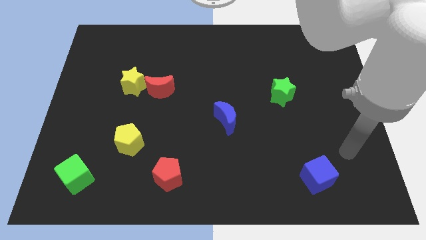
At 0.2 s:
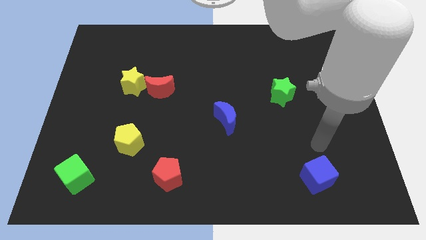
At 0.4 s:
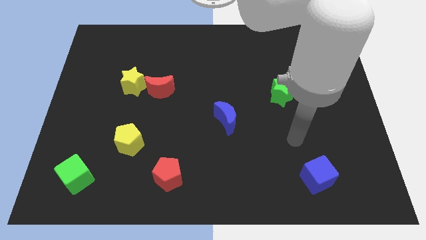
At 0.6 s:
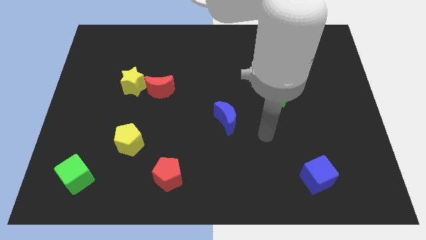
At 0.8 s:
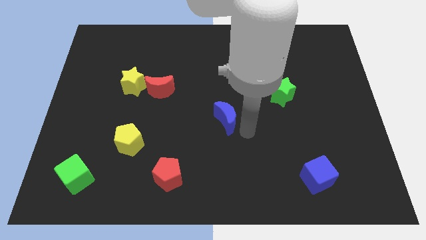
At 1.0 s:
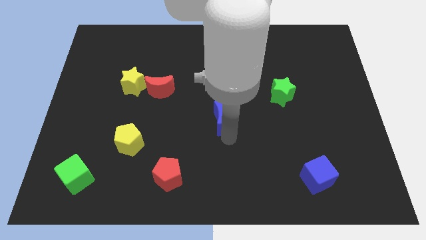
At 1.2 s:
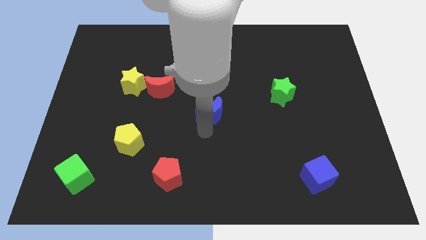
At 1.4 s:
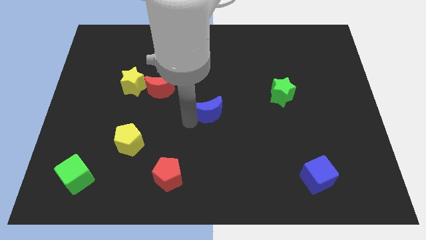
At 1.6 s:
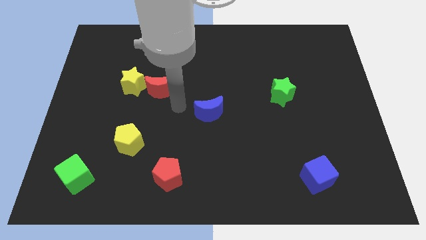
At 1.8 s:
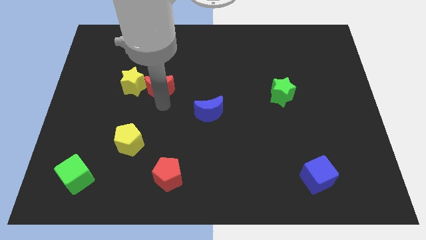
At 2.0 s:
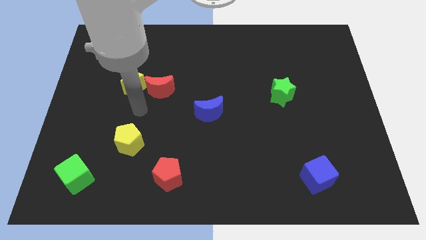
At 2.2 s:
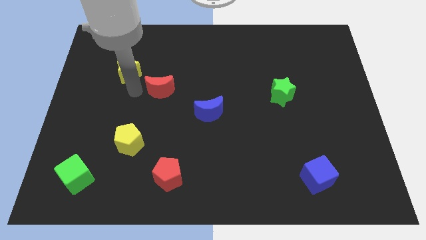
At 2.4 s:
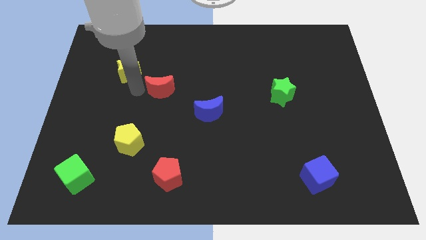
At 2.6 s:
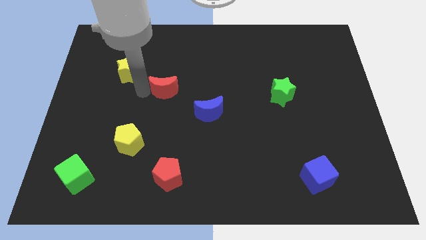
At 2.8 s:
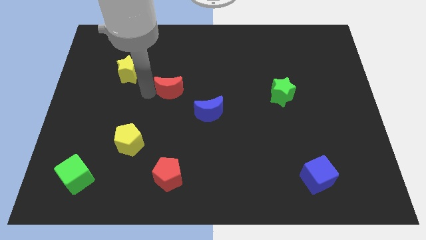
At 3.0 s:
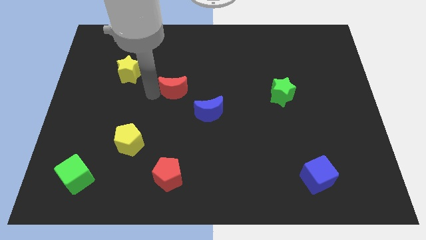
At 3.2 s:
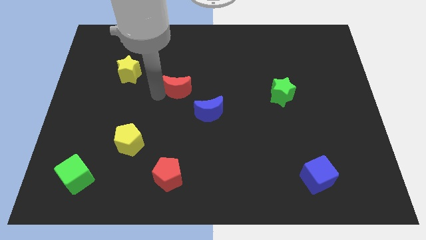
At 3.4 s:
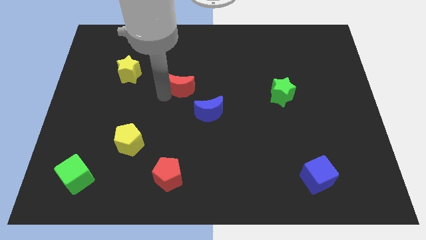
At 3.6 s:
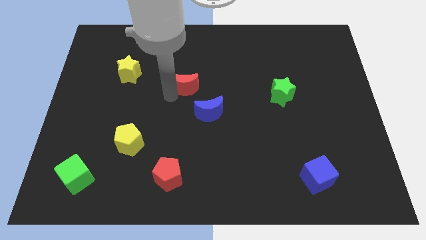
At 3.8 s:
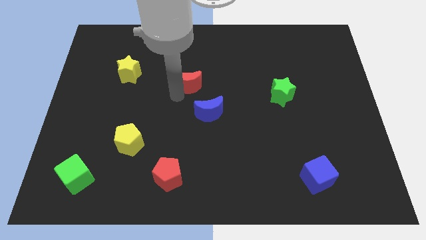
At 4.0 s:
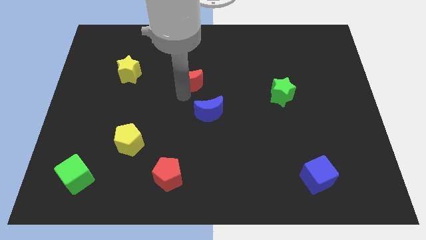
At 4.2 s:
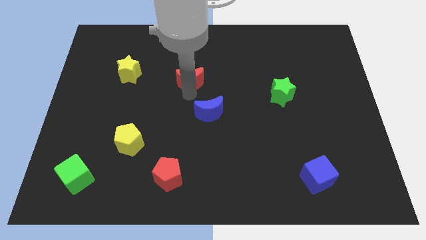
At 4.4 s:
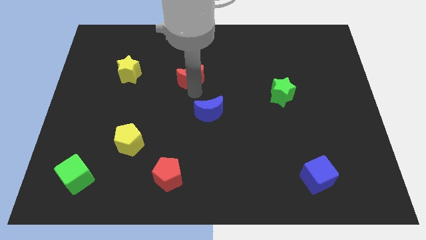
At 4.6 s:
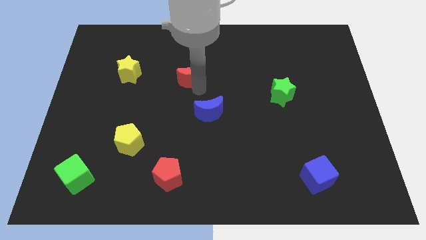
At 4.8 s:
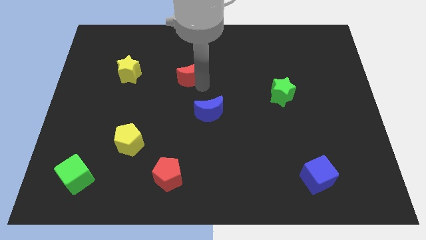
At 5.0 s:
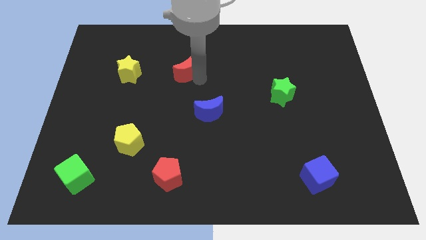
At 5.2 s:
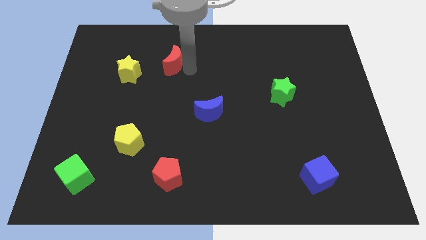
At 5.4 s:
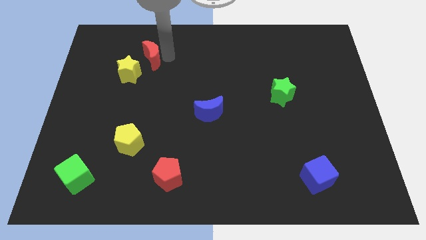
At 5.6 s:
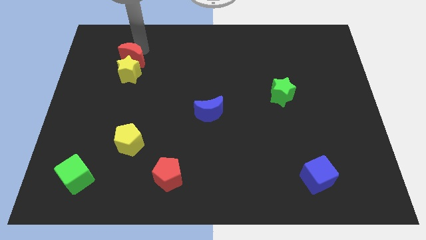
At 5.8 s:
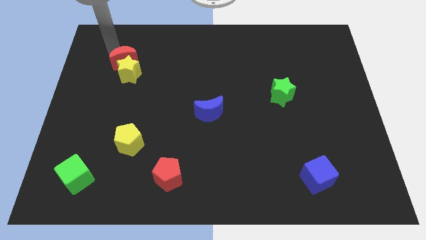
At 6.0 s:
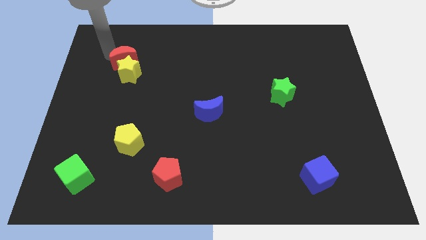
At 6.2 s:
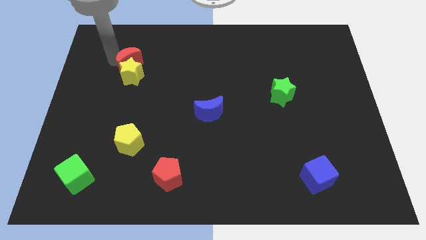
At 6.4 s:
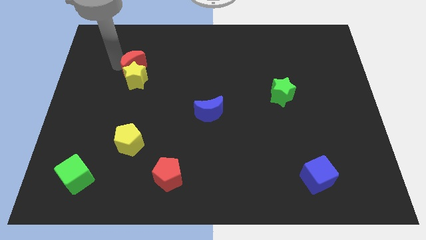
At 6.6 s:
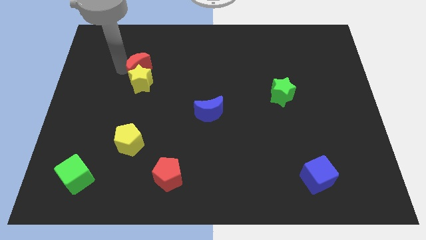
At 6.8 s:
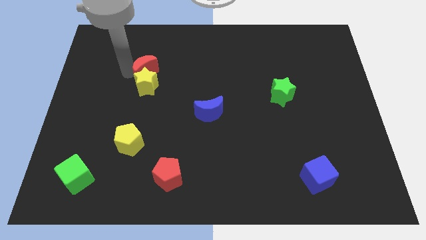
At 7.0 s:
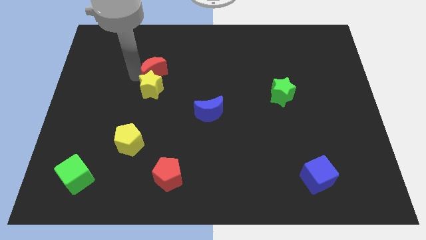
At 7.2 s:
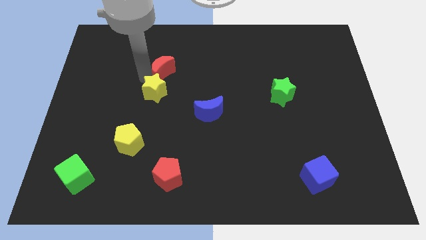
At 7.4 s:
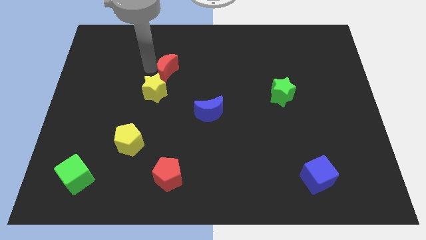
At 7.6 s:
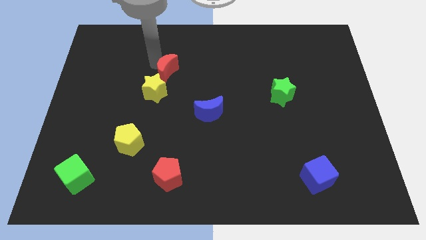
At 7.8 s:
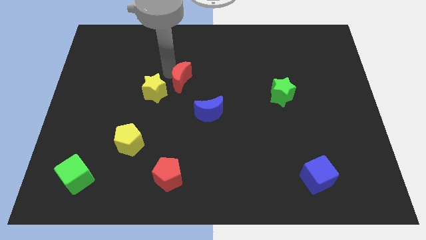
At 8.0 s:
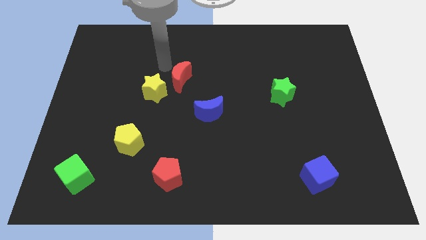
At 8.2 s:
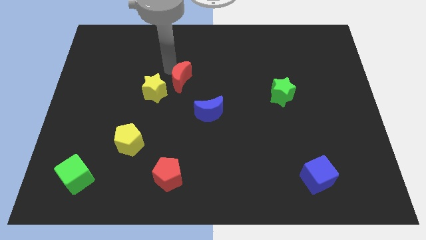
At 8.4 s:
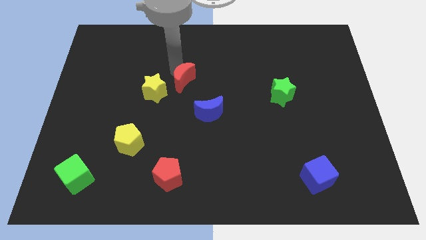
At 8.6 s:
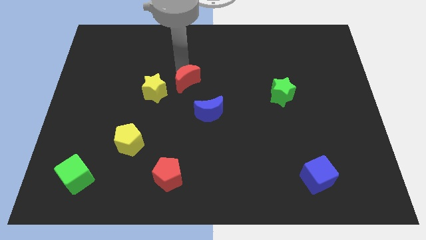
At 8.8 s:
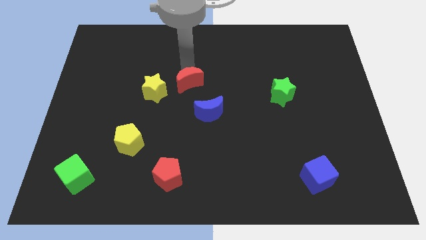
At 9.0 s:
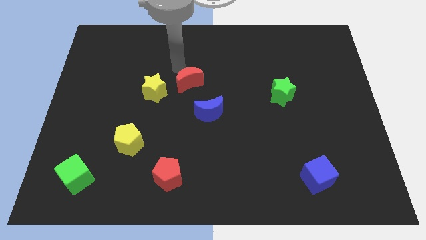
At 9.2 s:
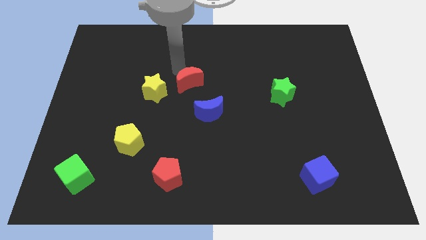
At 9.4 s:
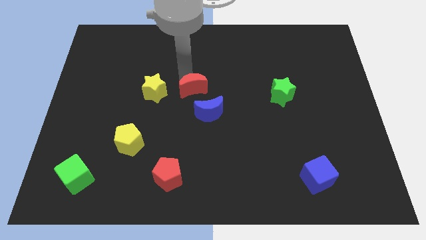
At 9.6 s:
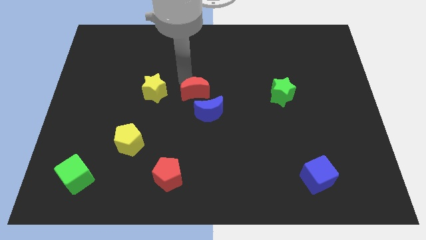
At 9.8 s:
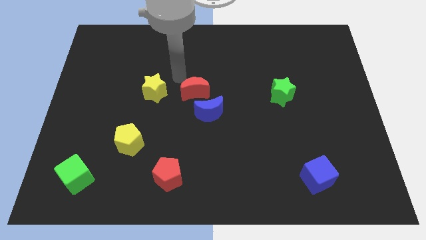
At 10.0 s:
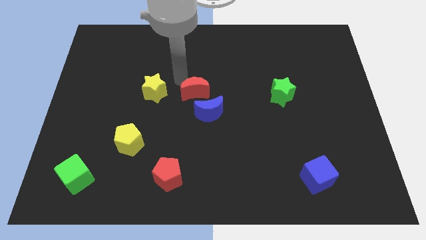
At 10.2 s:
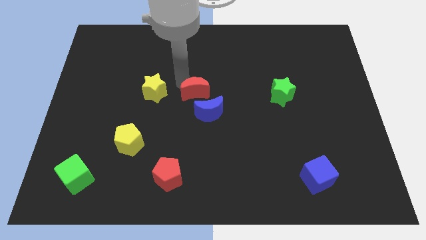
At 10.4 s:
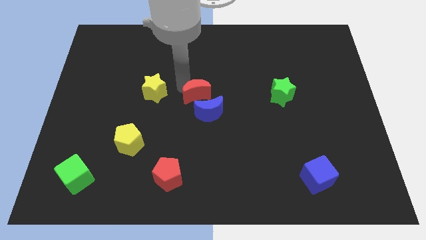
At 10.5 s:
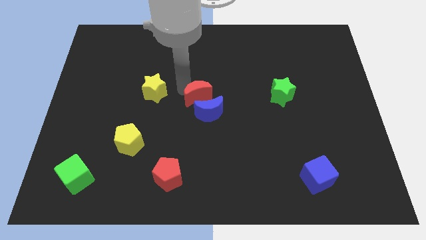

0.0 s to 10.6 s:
slide the red moon next to the blue moon

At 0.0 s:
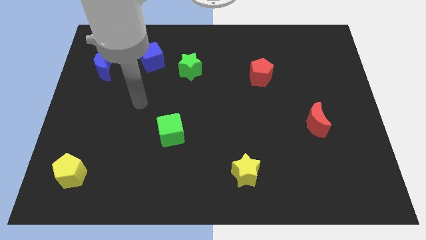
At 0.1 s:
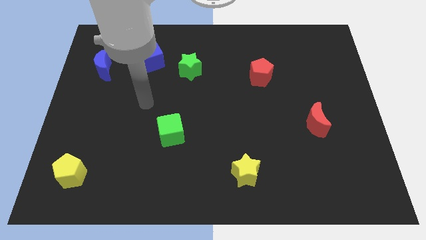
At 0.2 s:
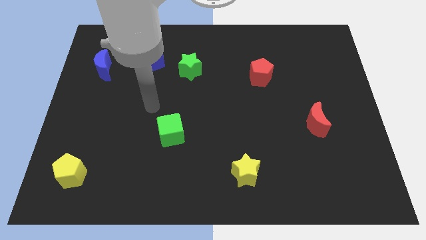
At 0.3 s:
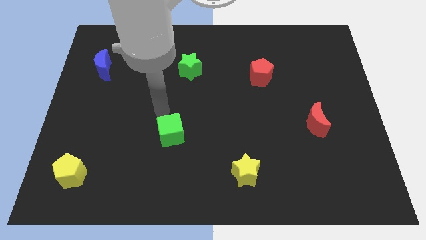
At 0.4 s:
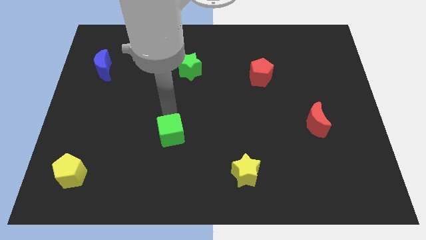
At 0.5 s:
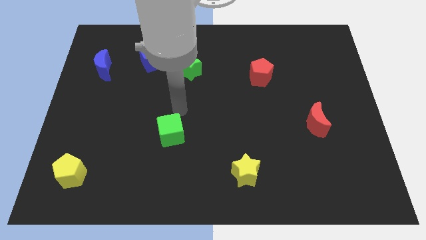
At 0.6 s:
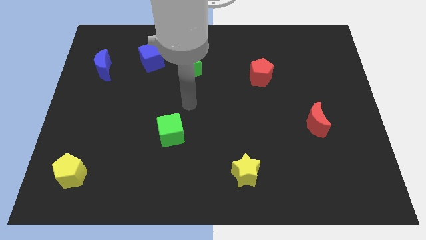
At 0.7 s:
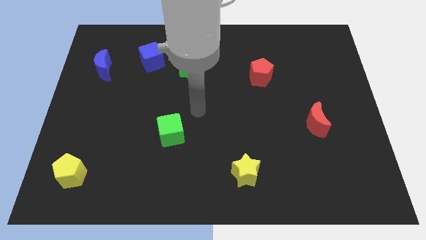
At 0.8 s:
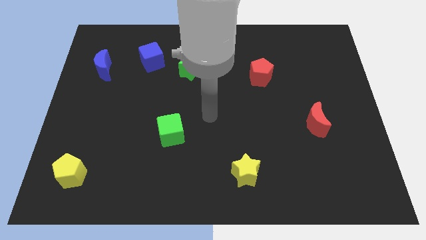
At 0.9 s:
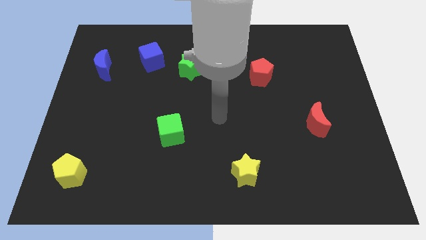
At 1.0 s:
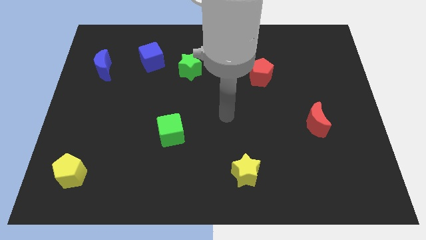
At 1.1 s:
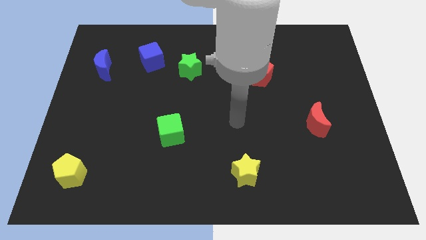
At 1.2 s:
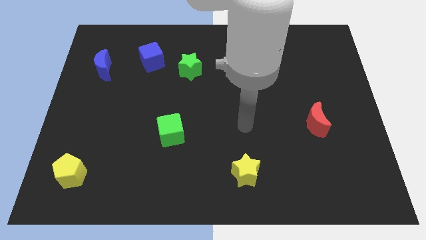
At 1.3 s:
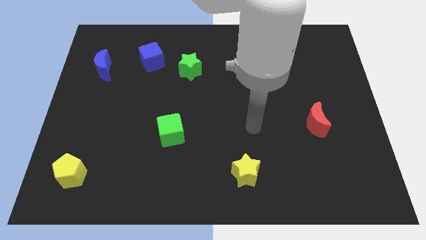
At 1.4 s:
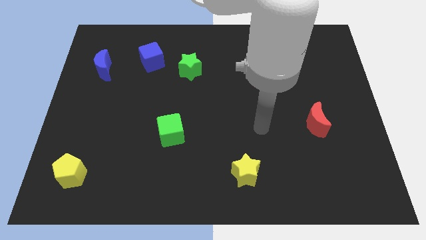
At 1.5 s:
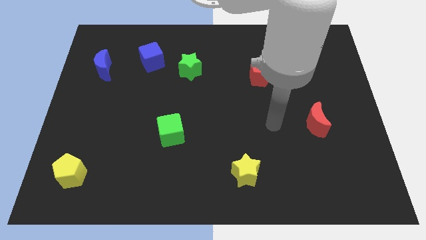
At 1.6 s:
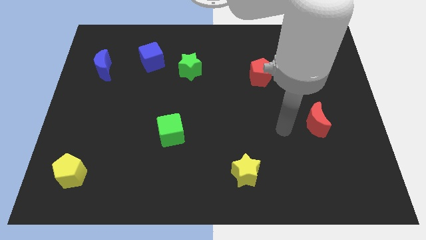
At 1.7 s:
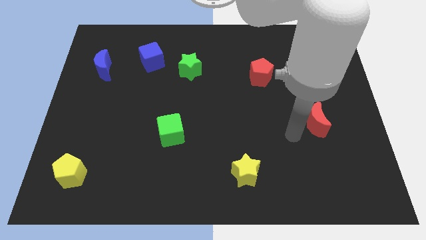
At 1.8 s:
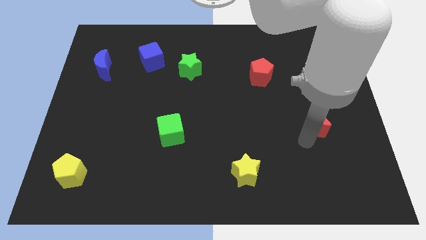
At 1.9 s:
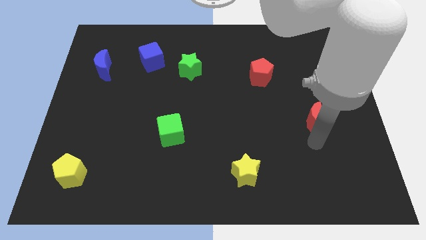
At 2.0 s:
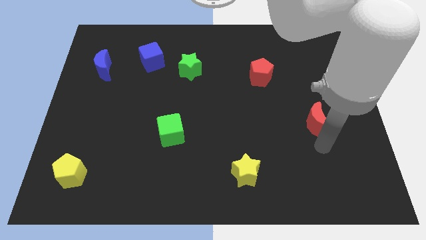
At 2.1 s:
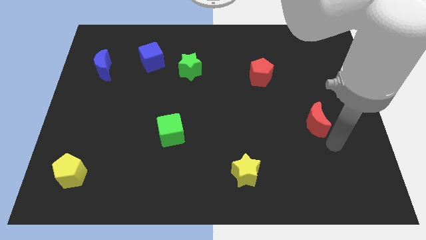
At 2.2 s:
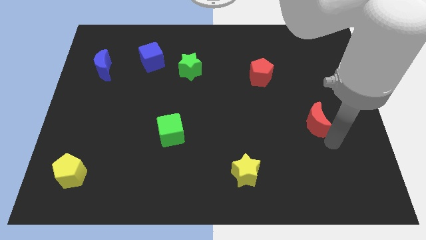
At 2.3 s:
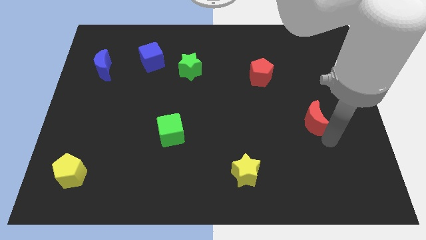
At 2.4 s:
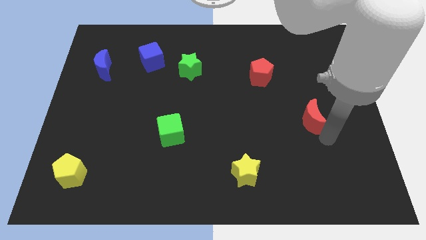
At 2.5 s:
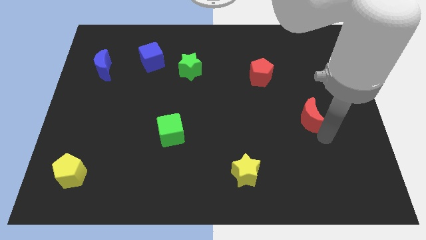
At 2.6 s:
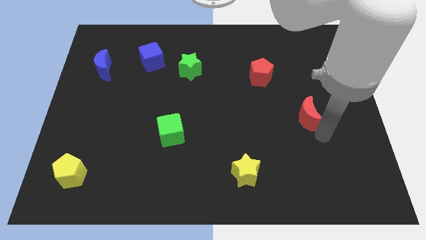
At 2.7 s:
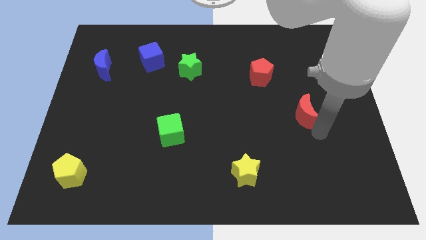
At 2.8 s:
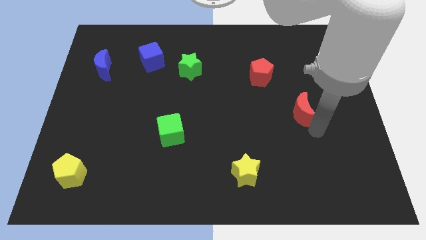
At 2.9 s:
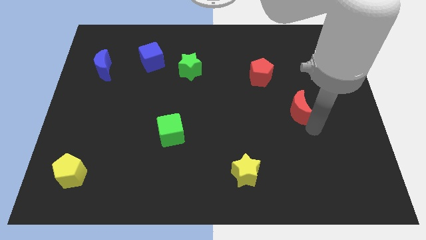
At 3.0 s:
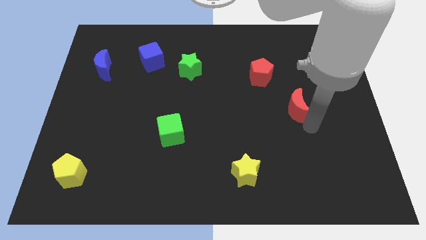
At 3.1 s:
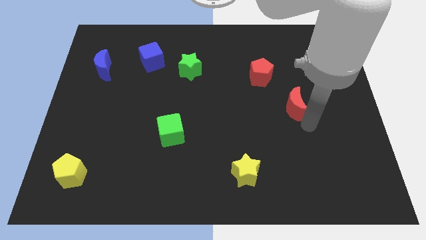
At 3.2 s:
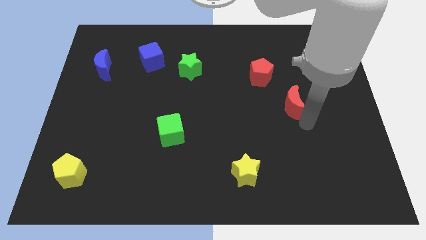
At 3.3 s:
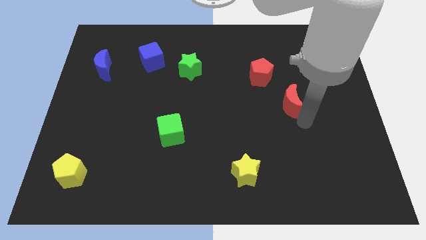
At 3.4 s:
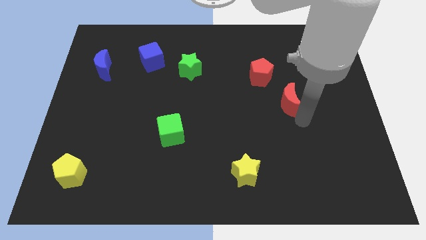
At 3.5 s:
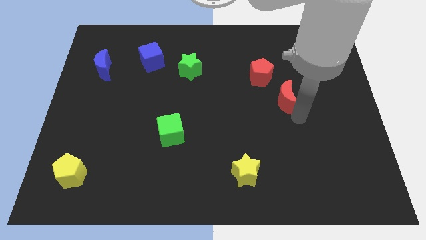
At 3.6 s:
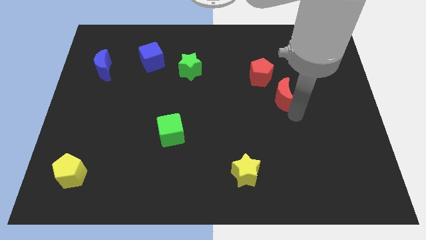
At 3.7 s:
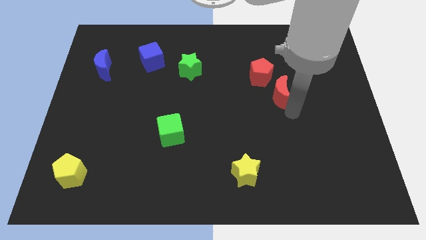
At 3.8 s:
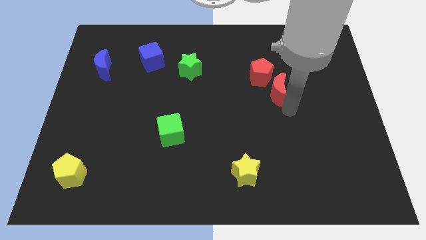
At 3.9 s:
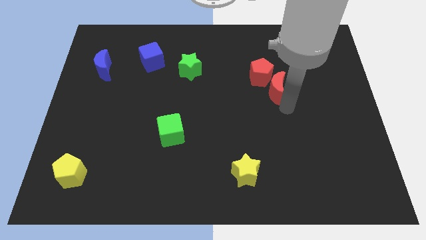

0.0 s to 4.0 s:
push the red moon next to the red pentagon
